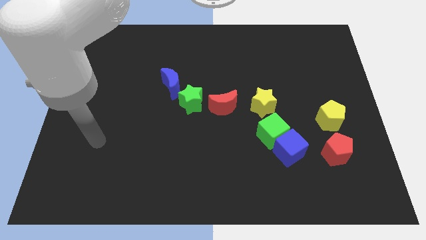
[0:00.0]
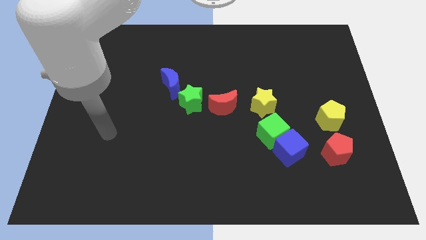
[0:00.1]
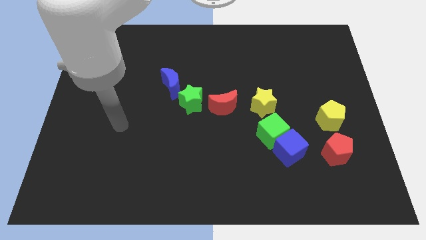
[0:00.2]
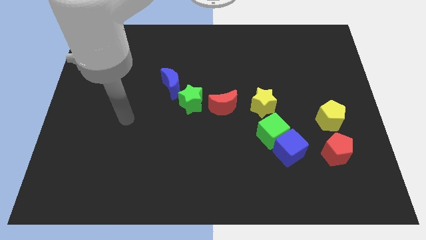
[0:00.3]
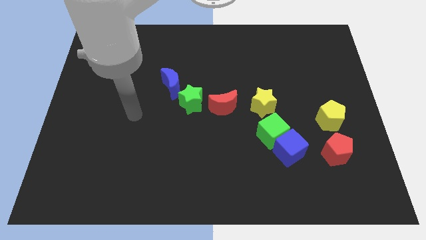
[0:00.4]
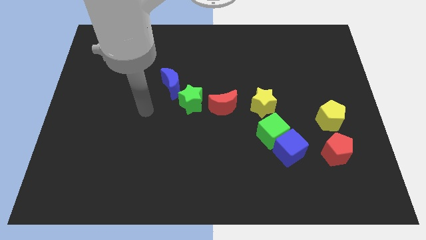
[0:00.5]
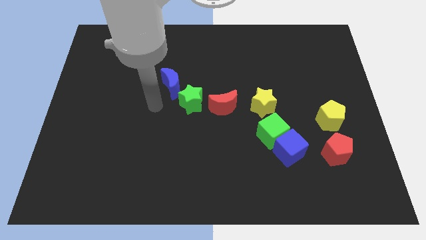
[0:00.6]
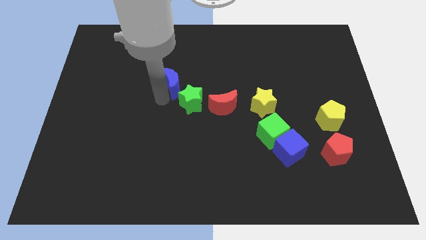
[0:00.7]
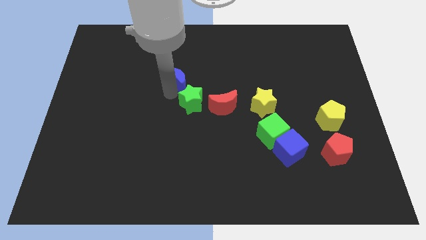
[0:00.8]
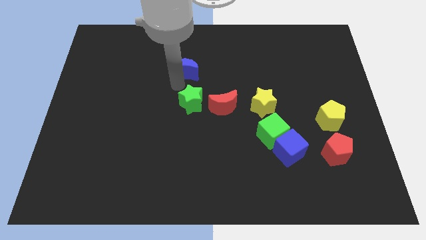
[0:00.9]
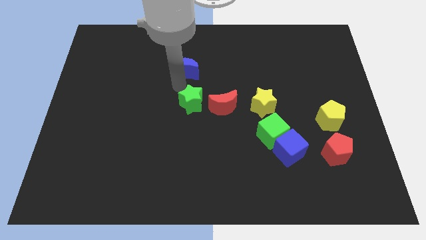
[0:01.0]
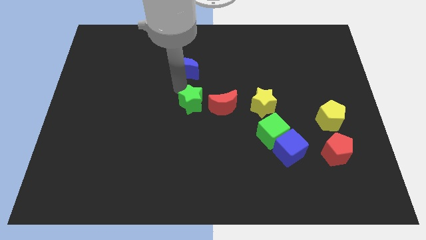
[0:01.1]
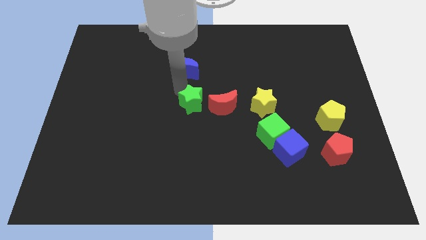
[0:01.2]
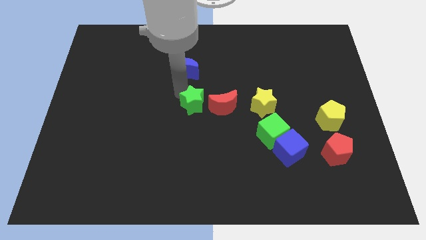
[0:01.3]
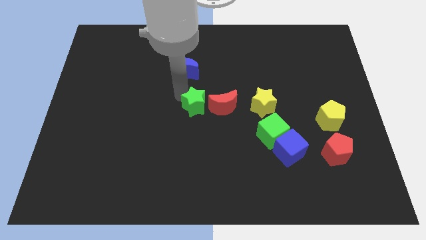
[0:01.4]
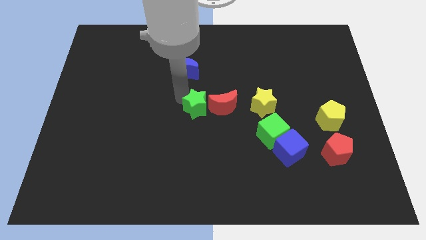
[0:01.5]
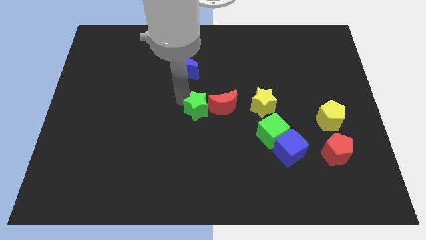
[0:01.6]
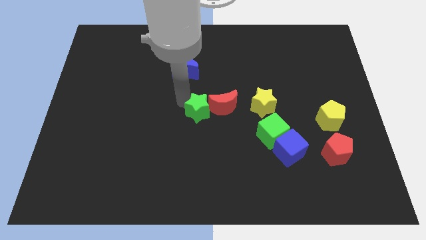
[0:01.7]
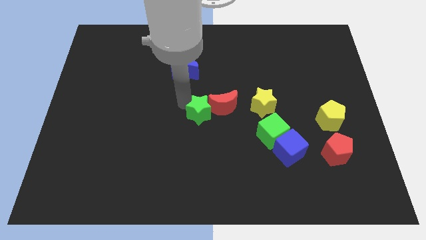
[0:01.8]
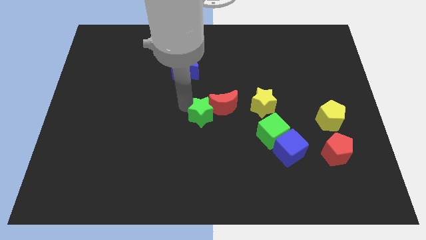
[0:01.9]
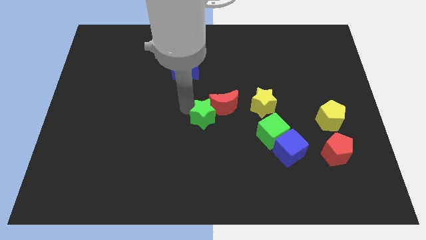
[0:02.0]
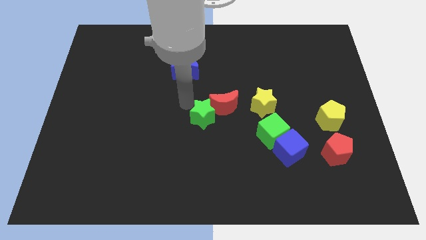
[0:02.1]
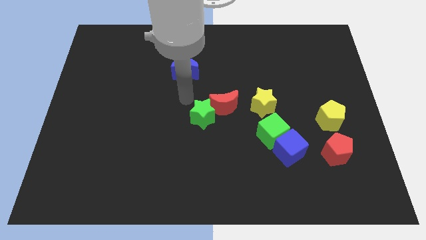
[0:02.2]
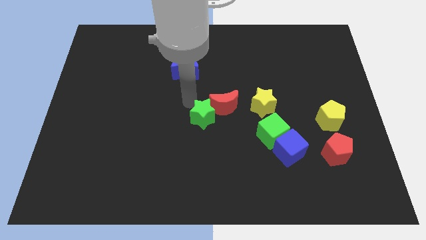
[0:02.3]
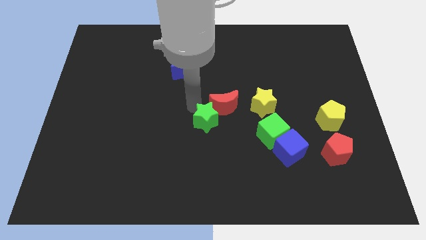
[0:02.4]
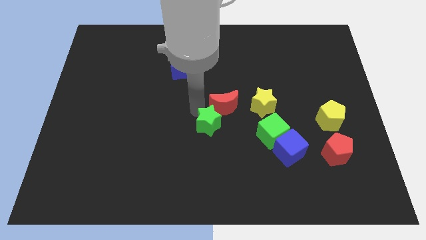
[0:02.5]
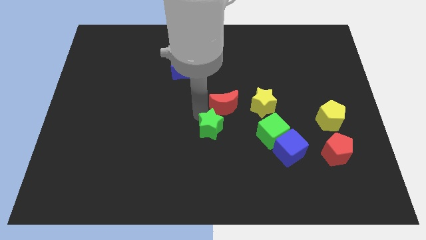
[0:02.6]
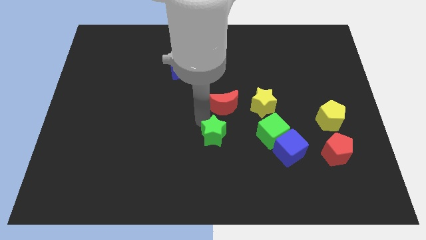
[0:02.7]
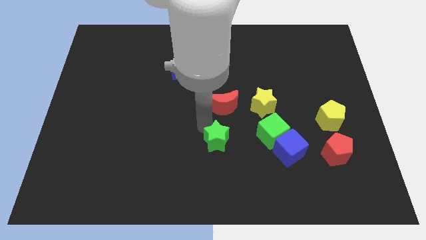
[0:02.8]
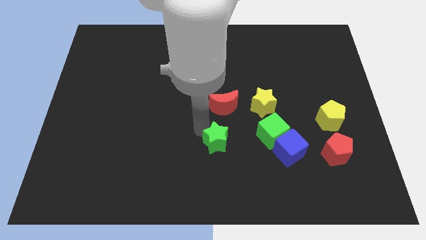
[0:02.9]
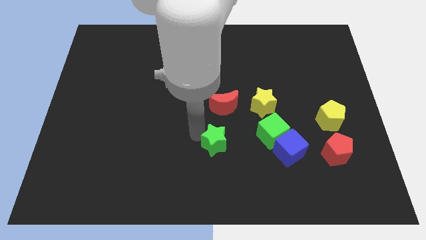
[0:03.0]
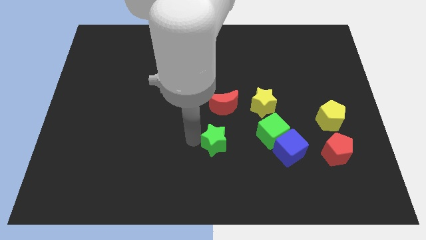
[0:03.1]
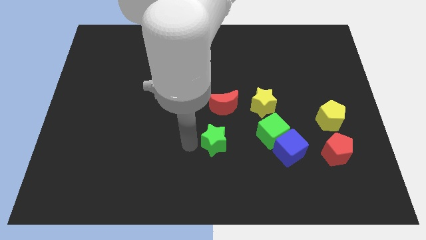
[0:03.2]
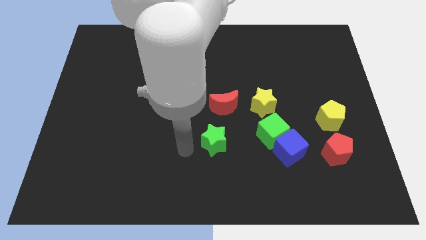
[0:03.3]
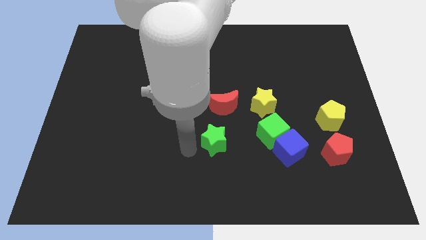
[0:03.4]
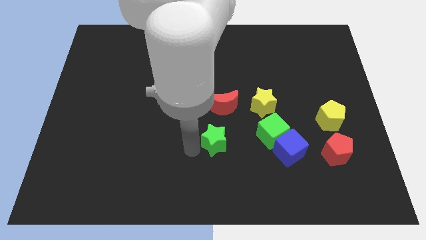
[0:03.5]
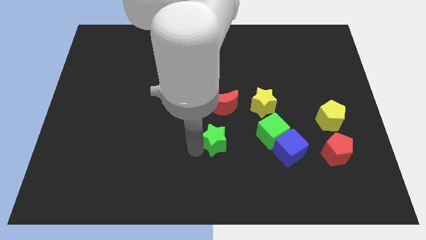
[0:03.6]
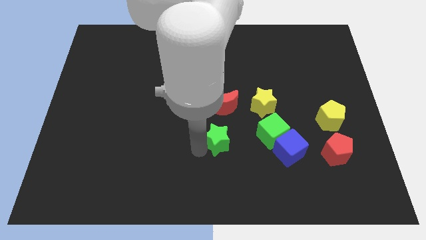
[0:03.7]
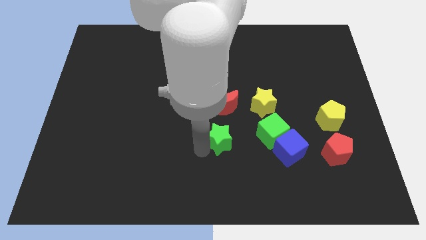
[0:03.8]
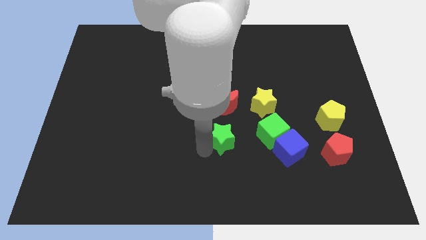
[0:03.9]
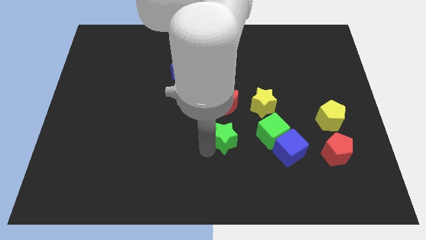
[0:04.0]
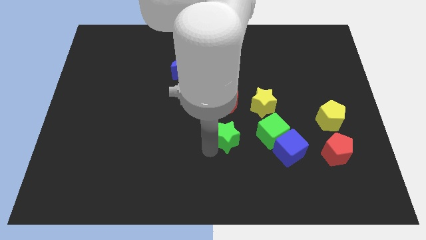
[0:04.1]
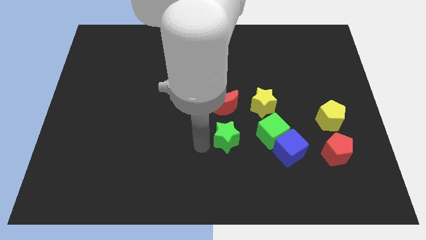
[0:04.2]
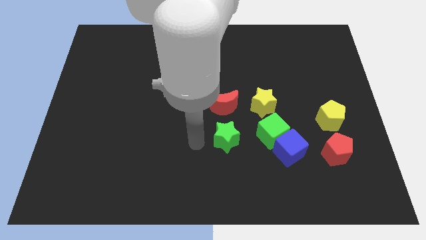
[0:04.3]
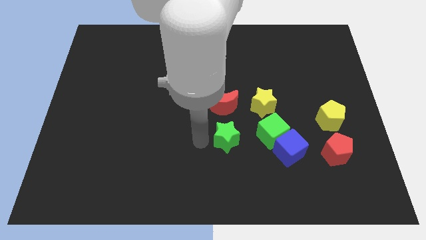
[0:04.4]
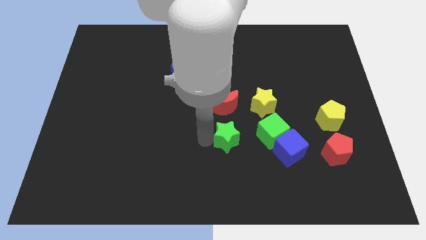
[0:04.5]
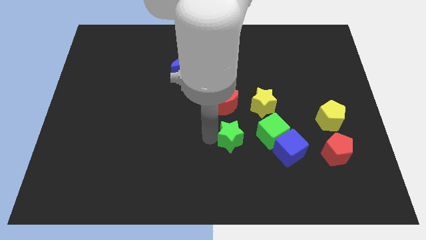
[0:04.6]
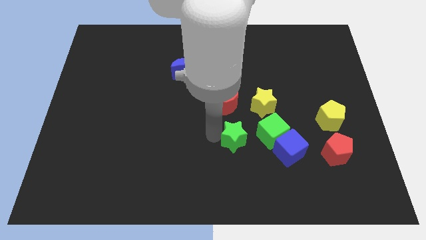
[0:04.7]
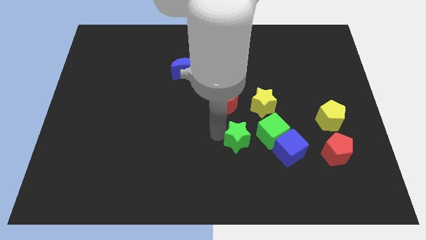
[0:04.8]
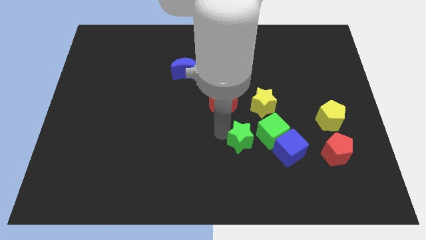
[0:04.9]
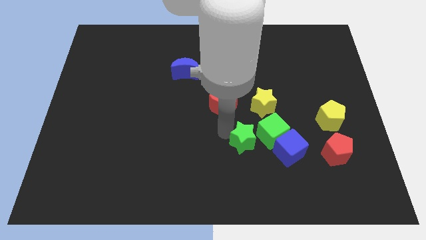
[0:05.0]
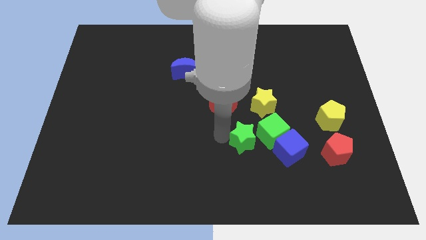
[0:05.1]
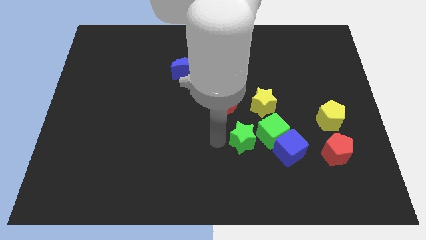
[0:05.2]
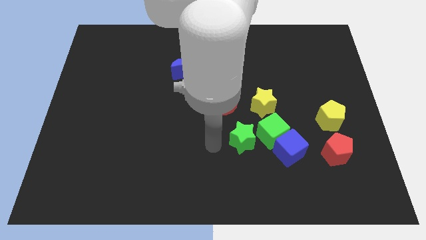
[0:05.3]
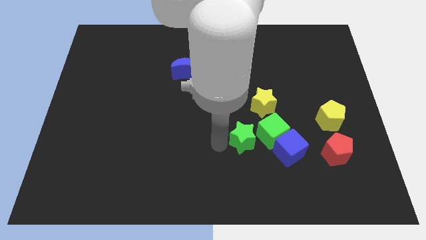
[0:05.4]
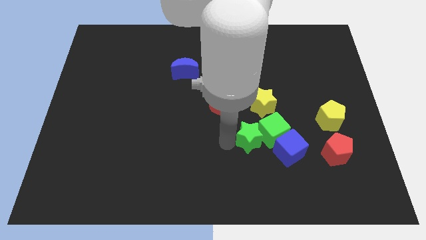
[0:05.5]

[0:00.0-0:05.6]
slide the green star close to the green cube

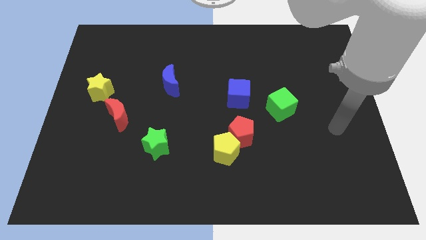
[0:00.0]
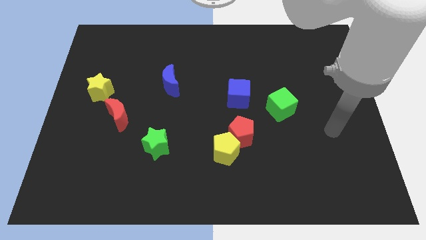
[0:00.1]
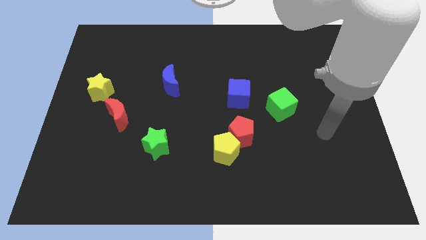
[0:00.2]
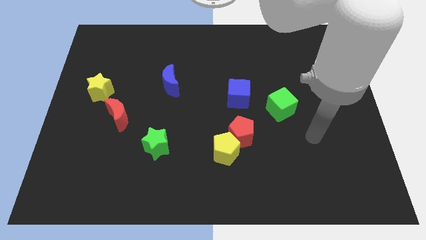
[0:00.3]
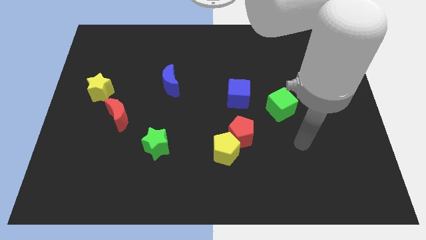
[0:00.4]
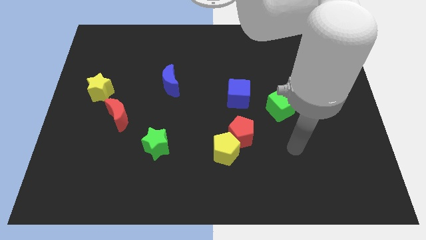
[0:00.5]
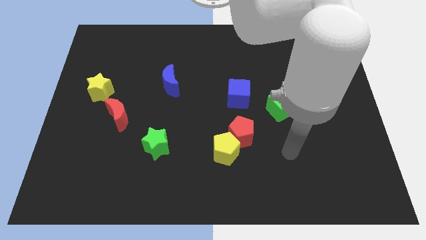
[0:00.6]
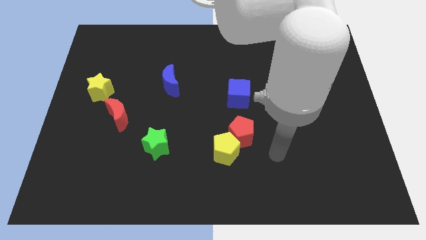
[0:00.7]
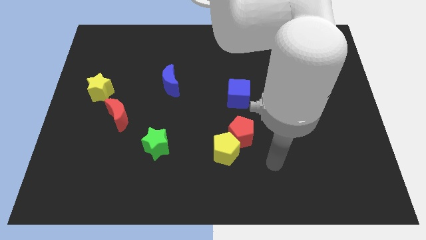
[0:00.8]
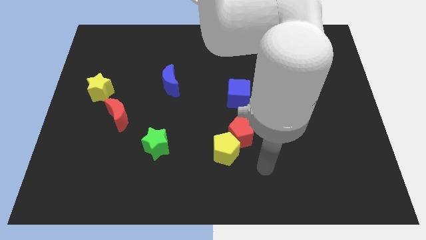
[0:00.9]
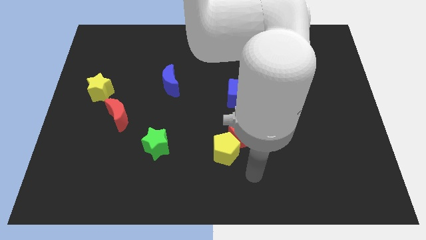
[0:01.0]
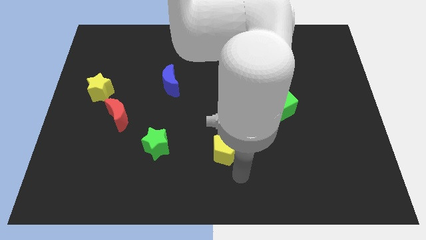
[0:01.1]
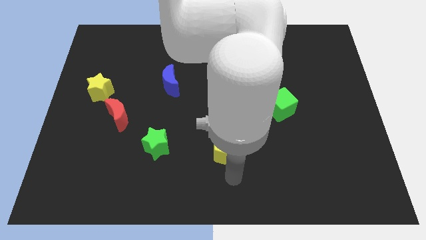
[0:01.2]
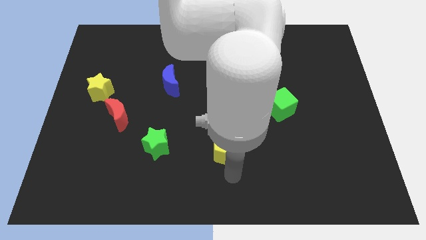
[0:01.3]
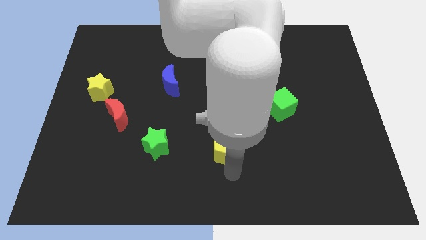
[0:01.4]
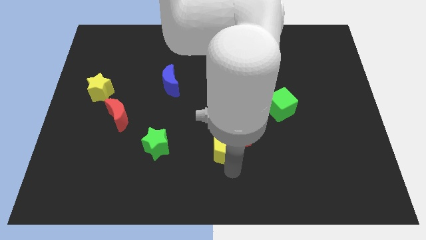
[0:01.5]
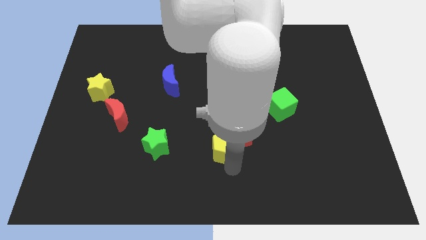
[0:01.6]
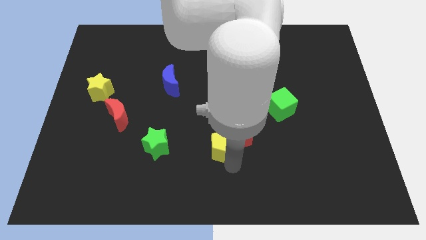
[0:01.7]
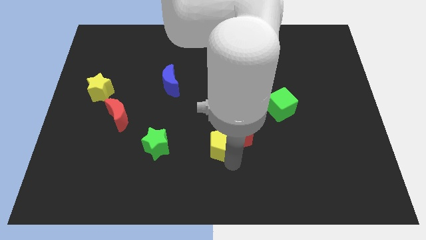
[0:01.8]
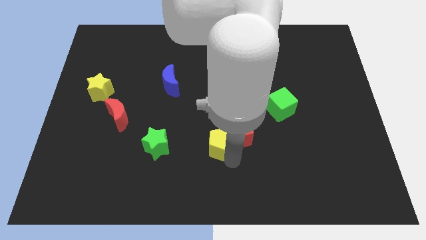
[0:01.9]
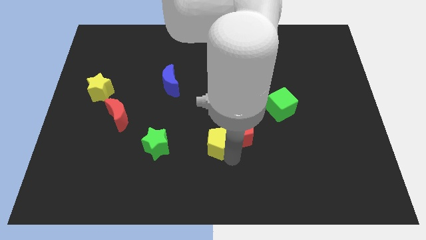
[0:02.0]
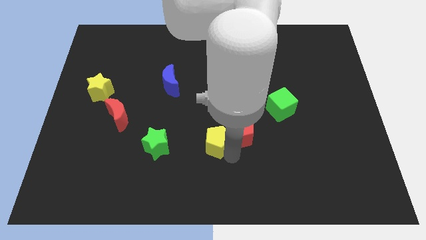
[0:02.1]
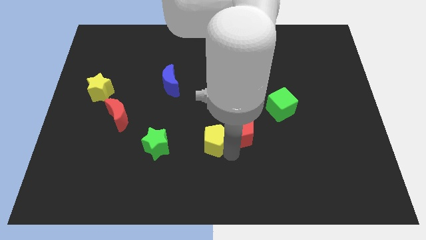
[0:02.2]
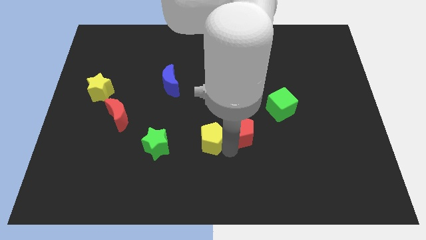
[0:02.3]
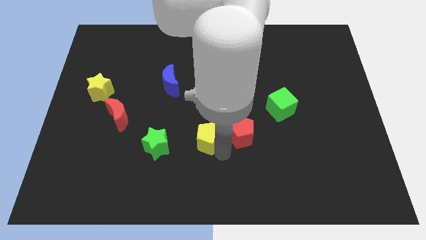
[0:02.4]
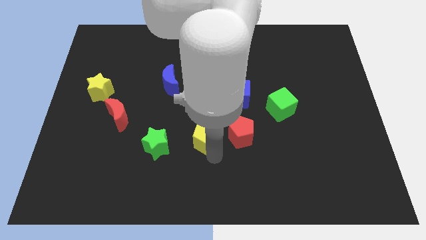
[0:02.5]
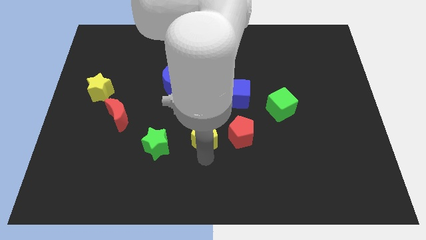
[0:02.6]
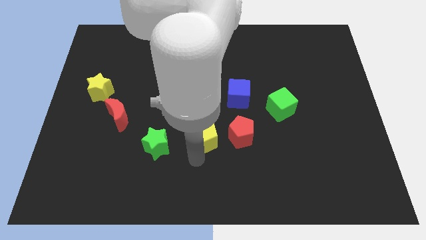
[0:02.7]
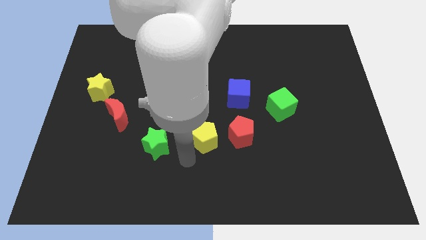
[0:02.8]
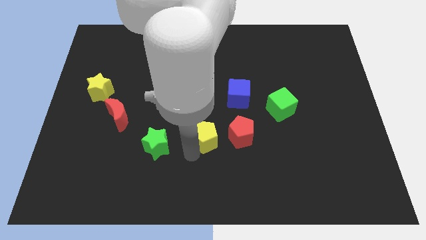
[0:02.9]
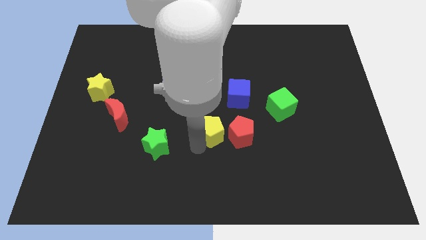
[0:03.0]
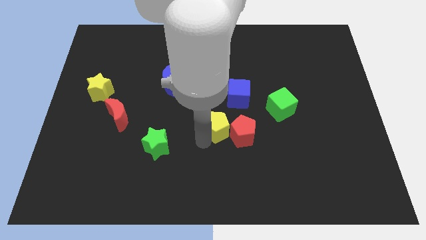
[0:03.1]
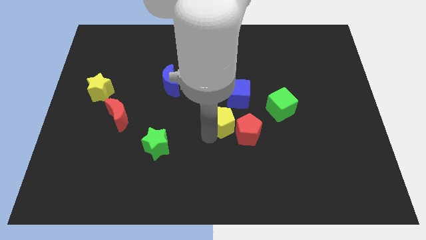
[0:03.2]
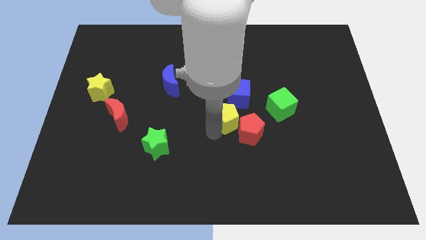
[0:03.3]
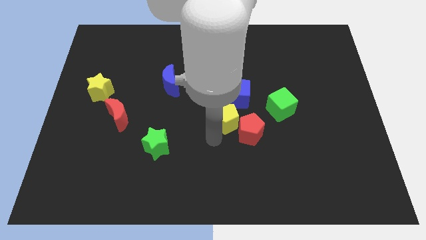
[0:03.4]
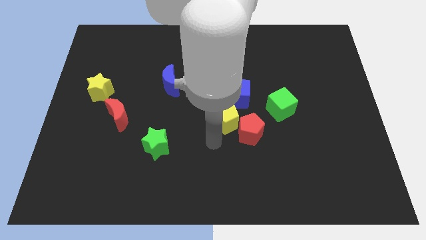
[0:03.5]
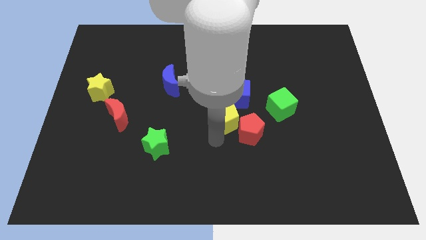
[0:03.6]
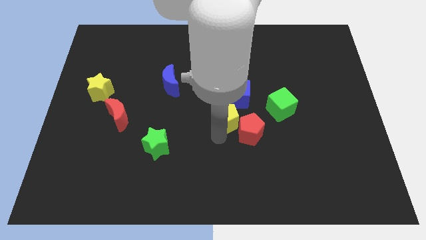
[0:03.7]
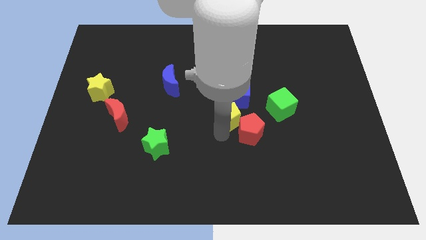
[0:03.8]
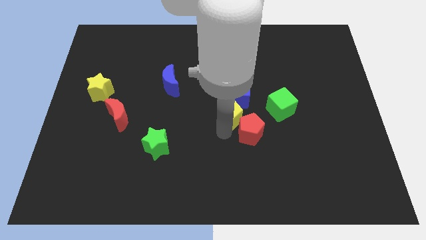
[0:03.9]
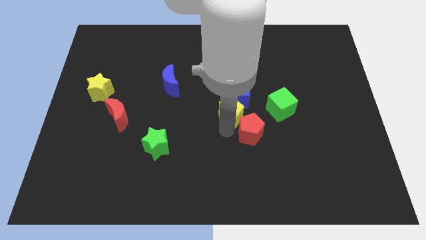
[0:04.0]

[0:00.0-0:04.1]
put the yellow pentagon to the blue cube
